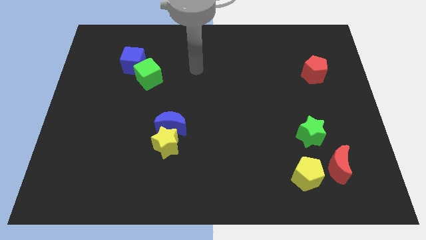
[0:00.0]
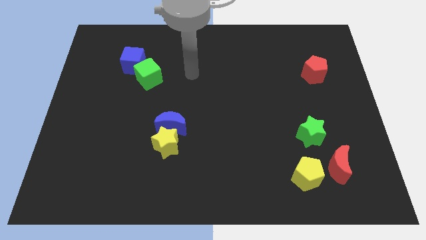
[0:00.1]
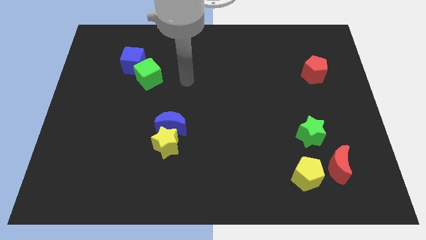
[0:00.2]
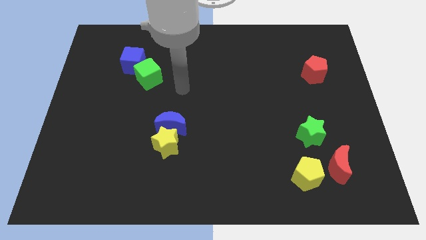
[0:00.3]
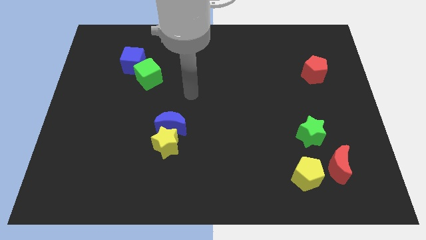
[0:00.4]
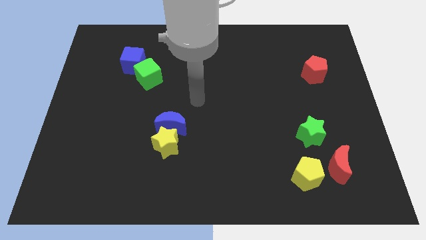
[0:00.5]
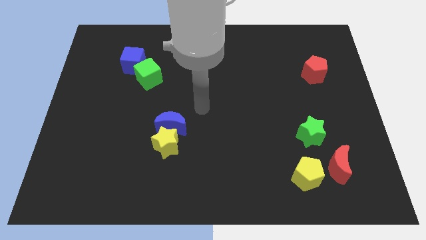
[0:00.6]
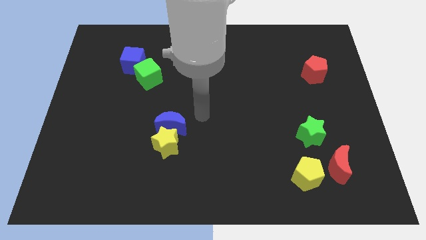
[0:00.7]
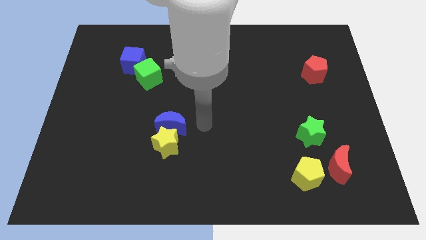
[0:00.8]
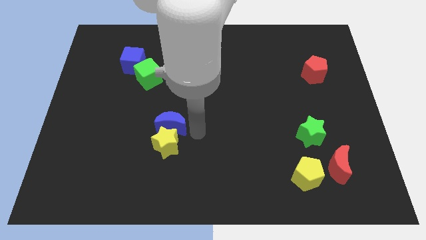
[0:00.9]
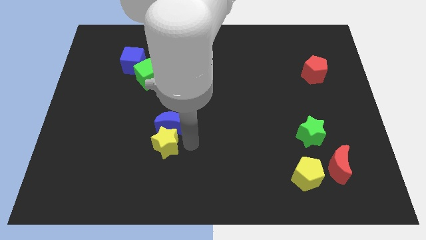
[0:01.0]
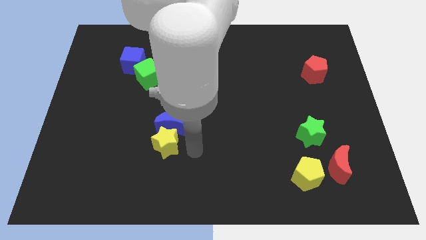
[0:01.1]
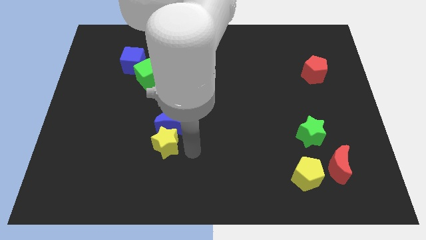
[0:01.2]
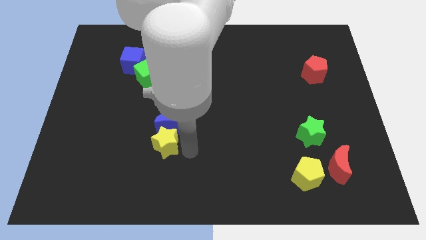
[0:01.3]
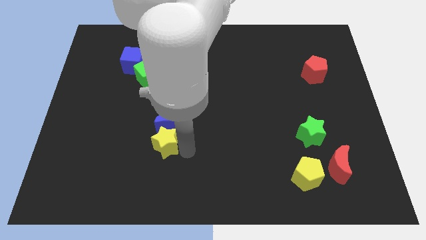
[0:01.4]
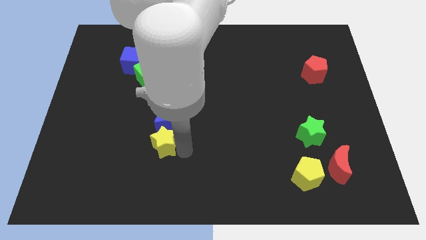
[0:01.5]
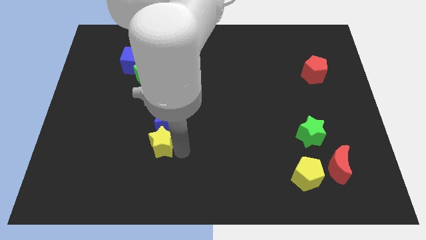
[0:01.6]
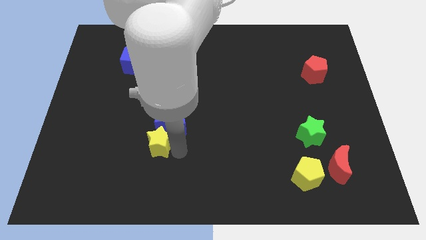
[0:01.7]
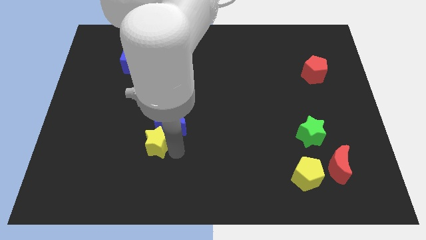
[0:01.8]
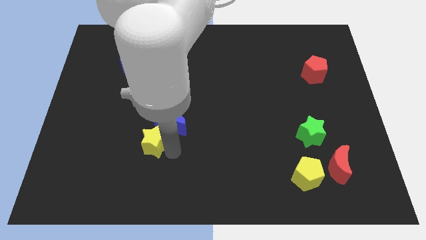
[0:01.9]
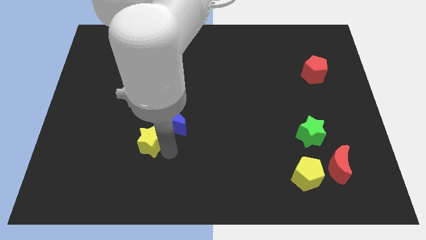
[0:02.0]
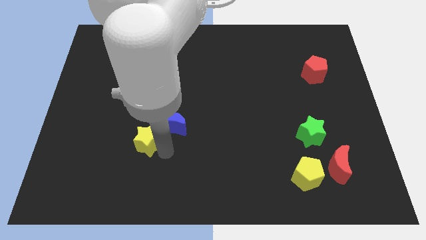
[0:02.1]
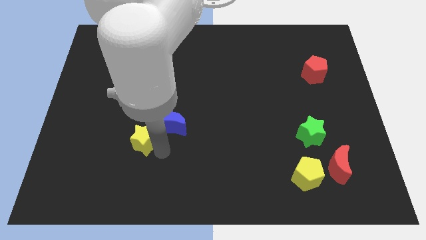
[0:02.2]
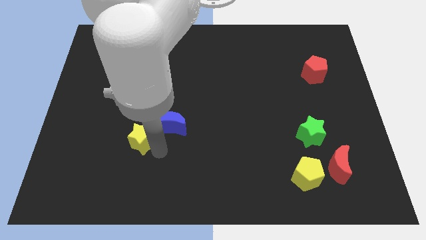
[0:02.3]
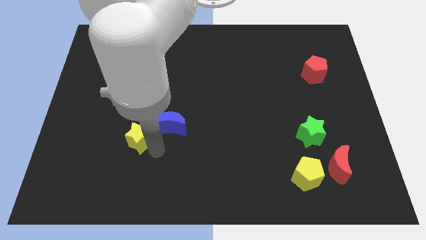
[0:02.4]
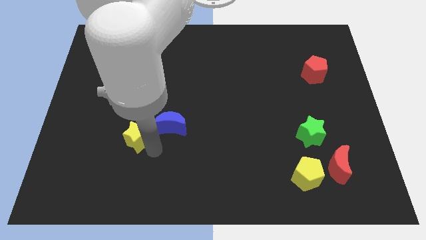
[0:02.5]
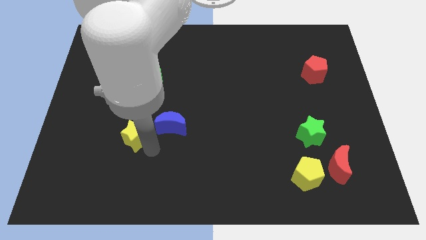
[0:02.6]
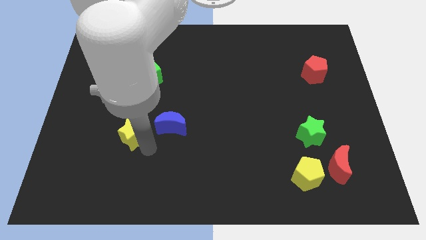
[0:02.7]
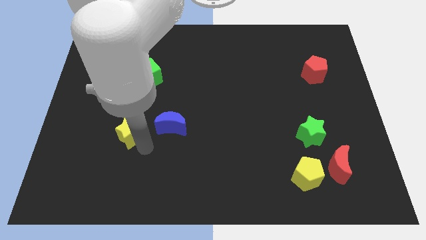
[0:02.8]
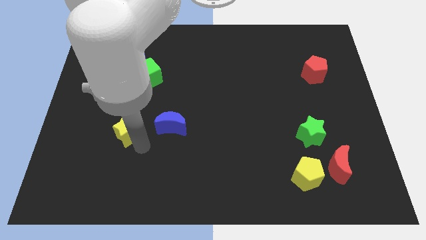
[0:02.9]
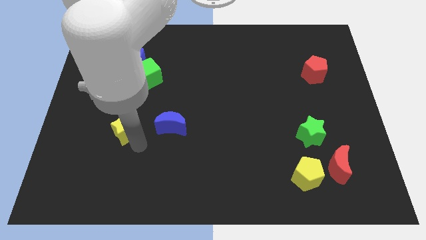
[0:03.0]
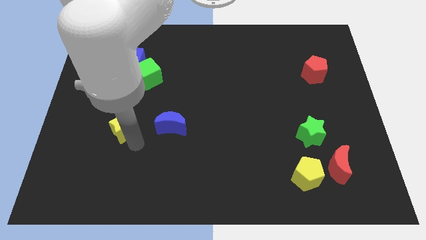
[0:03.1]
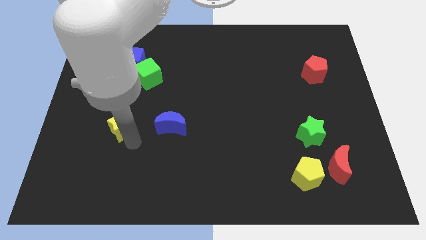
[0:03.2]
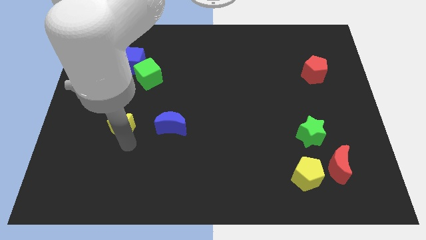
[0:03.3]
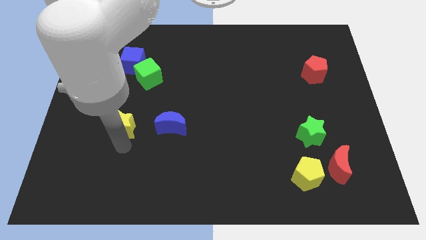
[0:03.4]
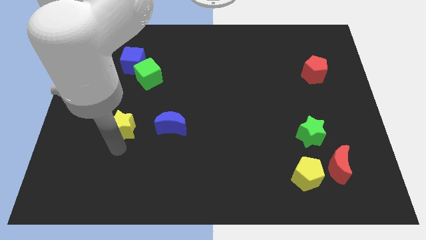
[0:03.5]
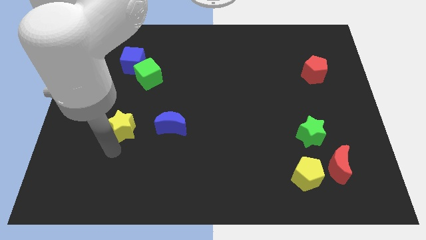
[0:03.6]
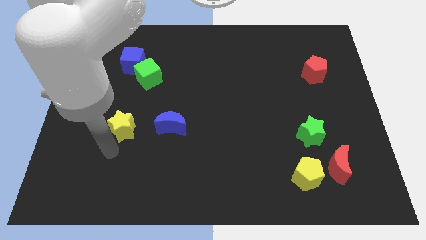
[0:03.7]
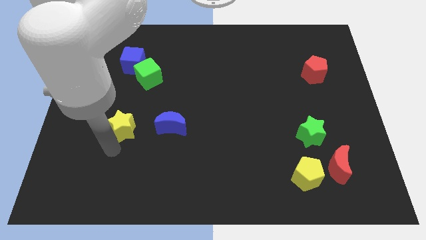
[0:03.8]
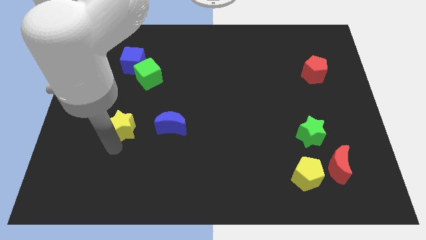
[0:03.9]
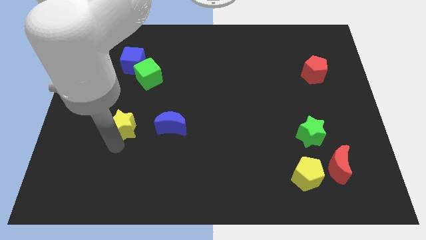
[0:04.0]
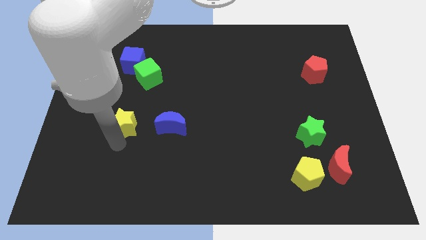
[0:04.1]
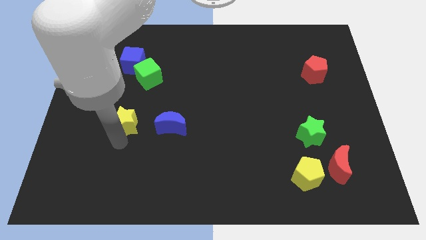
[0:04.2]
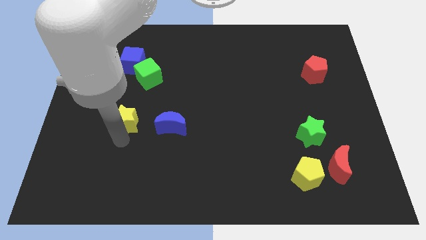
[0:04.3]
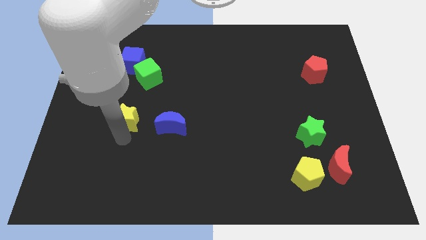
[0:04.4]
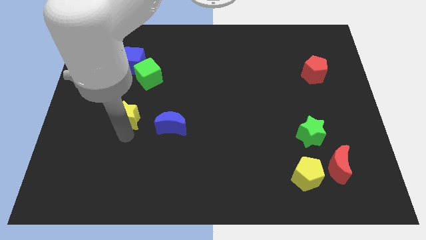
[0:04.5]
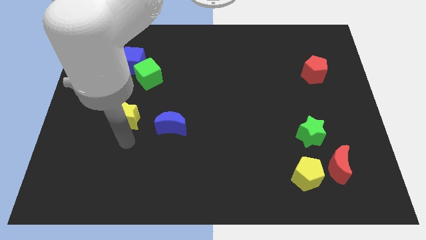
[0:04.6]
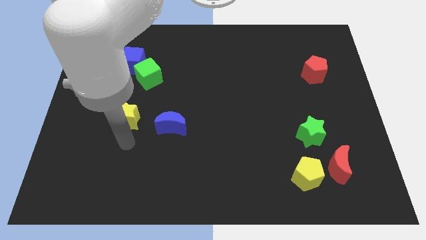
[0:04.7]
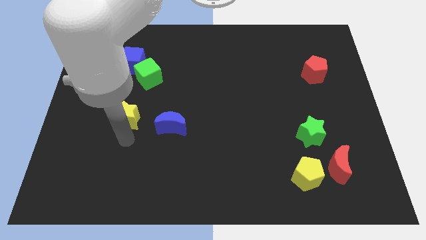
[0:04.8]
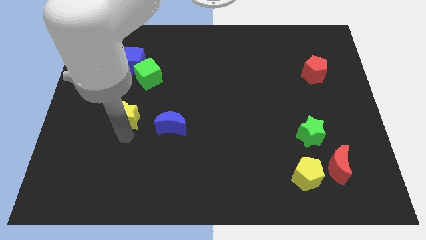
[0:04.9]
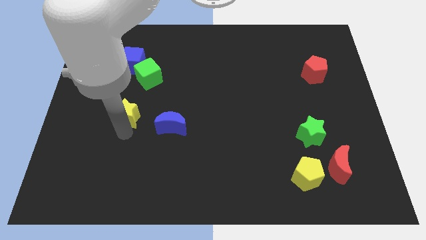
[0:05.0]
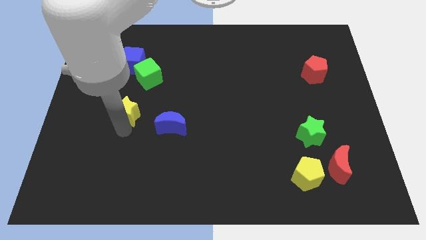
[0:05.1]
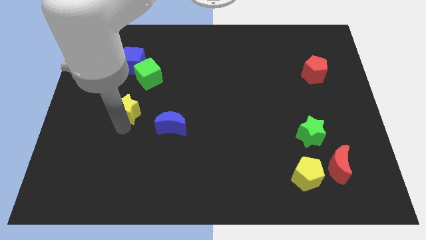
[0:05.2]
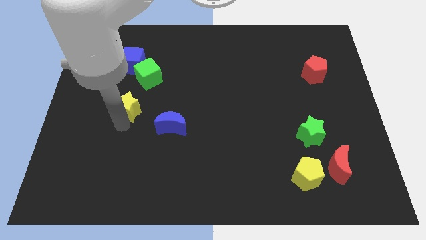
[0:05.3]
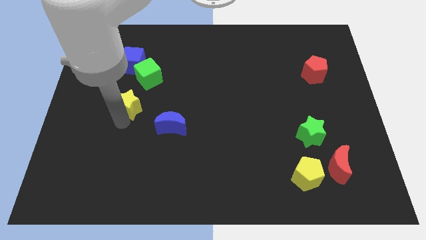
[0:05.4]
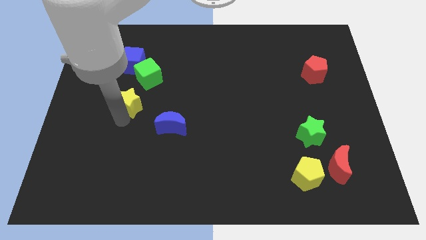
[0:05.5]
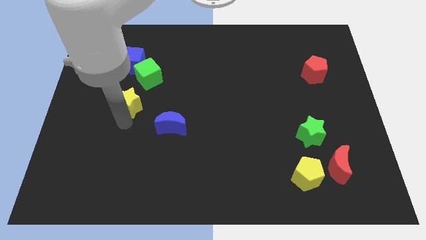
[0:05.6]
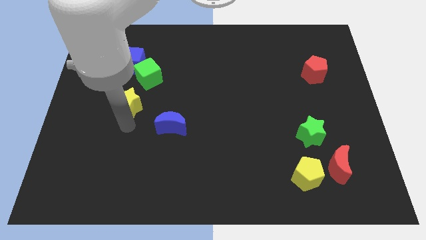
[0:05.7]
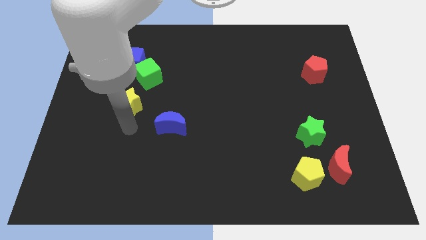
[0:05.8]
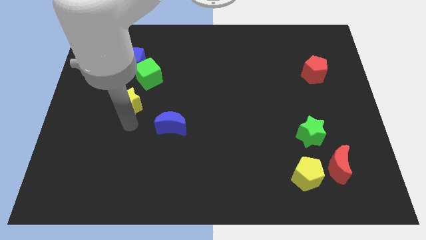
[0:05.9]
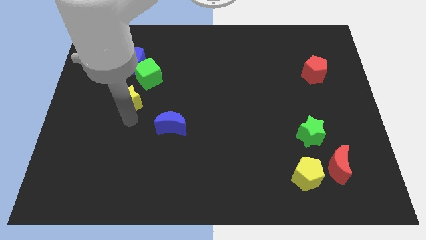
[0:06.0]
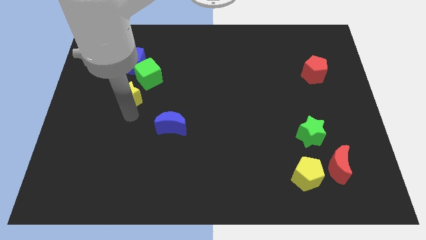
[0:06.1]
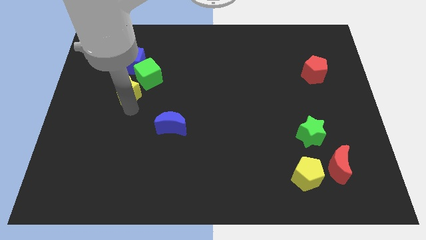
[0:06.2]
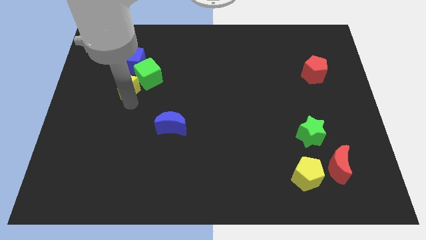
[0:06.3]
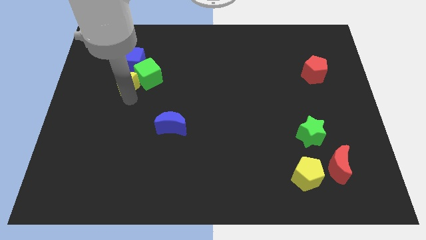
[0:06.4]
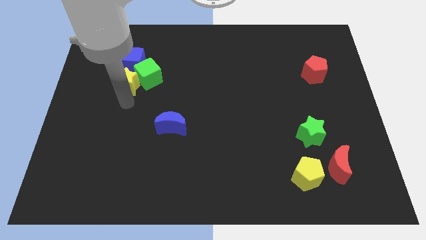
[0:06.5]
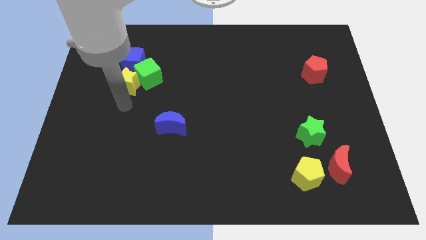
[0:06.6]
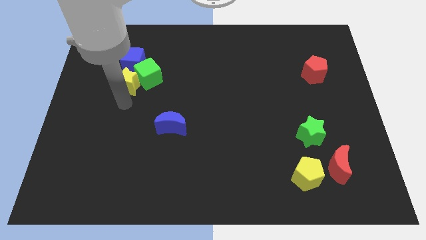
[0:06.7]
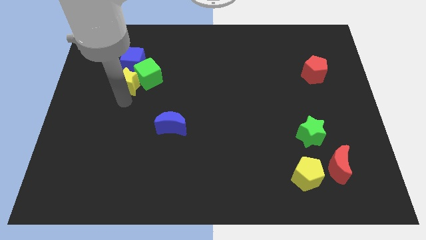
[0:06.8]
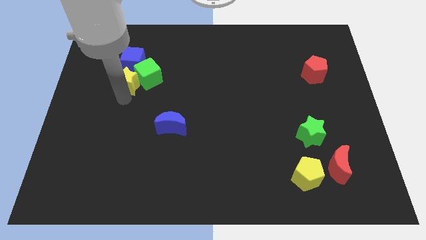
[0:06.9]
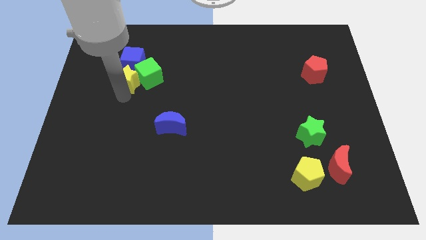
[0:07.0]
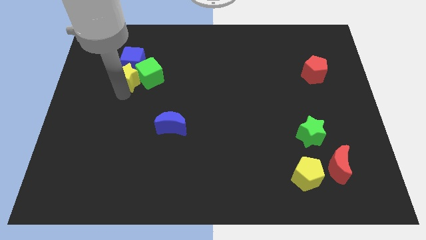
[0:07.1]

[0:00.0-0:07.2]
put the yellow star next to the blue cube
